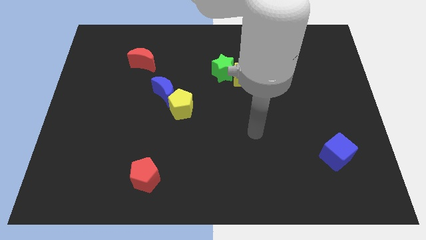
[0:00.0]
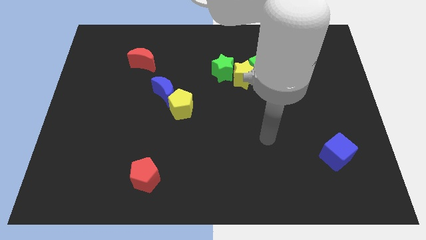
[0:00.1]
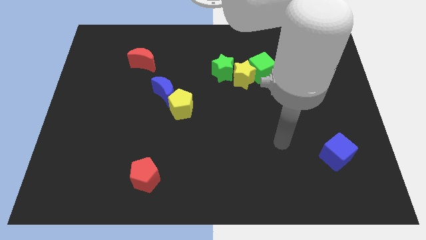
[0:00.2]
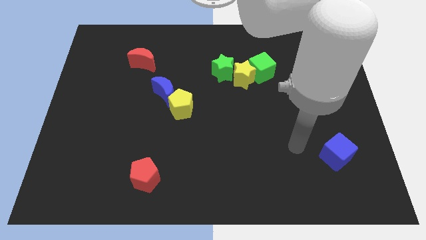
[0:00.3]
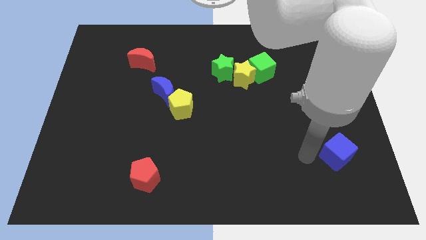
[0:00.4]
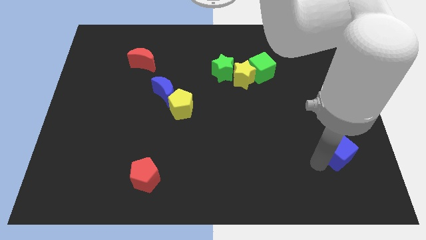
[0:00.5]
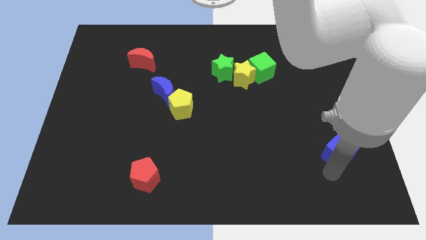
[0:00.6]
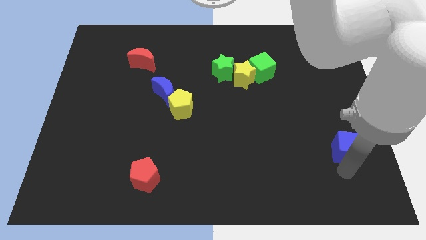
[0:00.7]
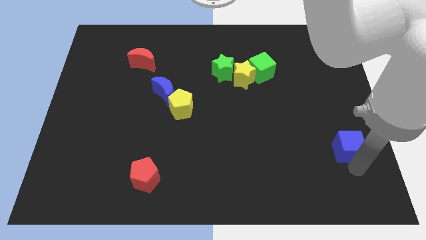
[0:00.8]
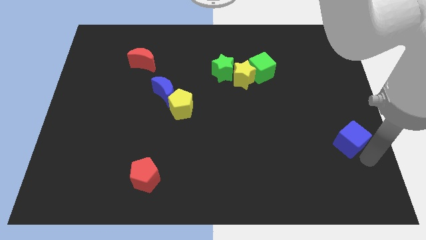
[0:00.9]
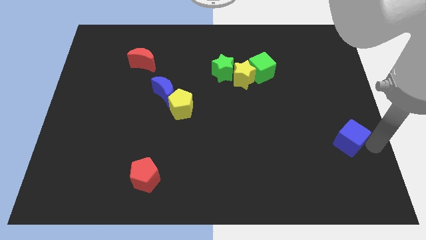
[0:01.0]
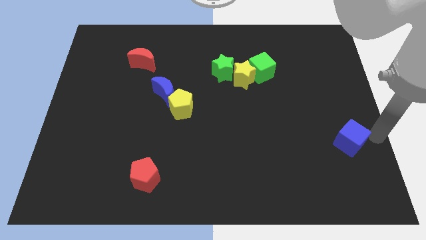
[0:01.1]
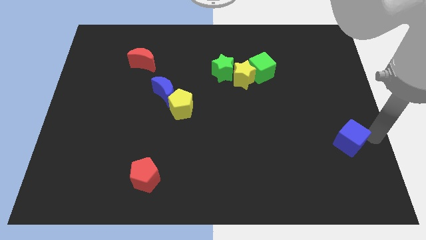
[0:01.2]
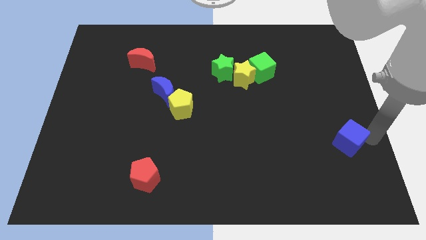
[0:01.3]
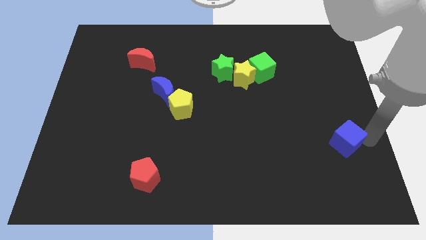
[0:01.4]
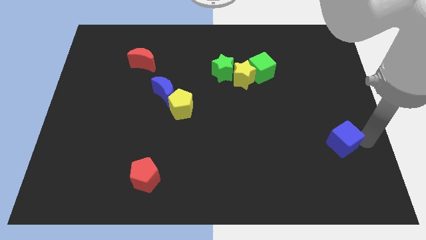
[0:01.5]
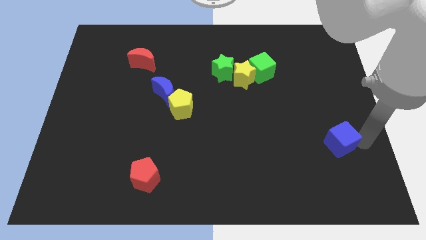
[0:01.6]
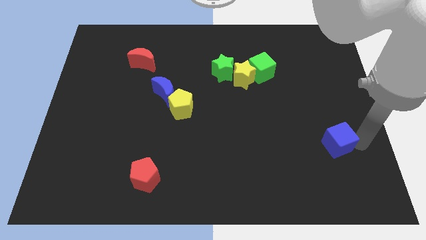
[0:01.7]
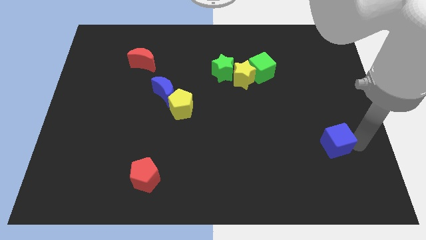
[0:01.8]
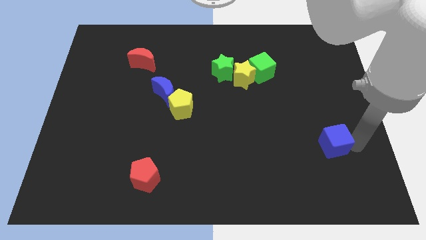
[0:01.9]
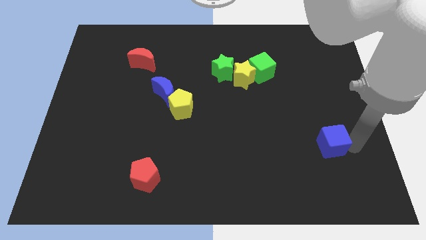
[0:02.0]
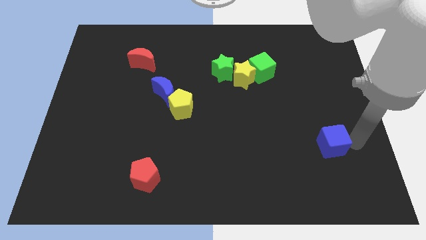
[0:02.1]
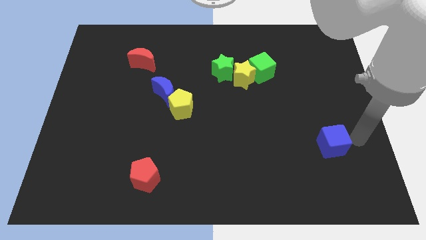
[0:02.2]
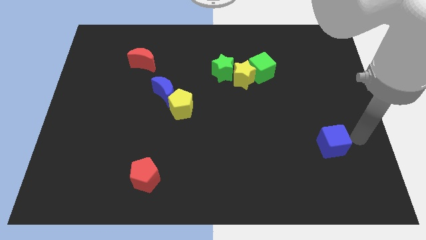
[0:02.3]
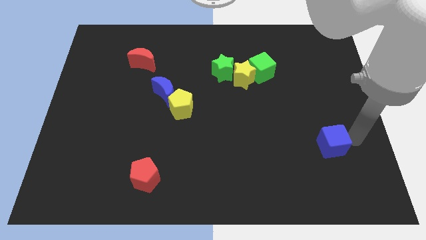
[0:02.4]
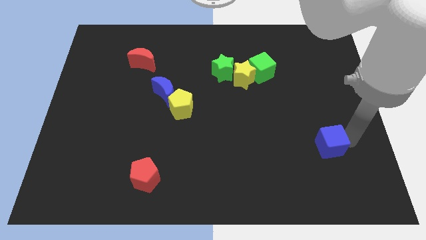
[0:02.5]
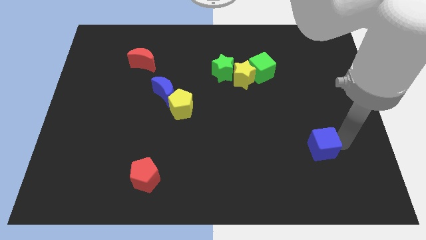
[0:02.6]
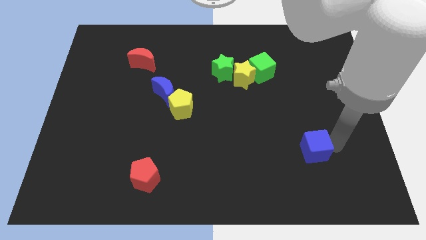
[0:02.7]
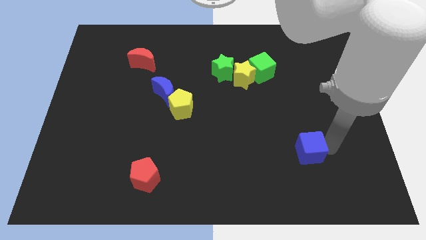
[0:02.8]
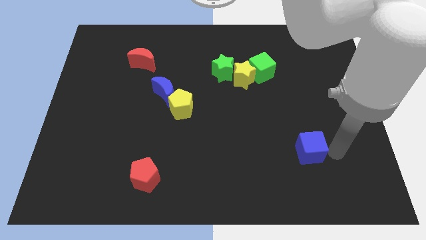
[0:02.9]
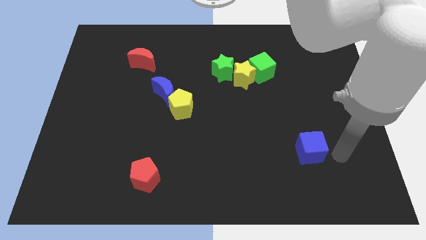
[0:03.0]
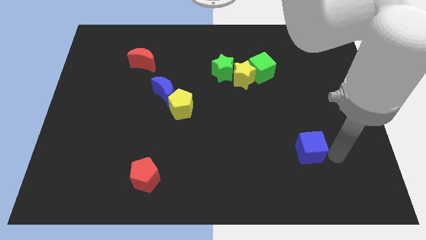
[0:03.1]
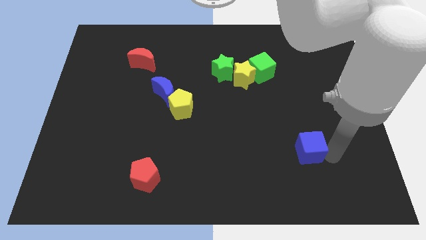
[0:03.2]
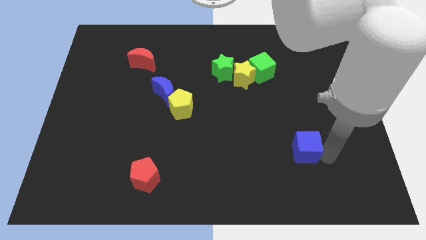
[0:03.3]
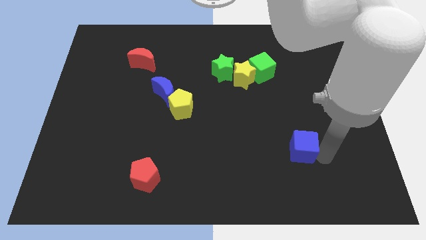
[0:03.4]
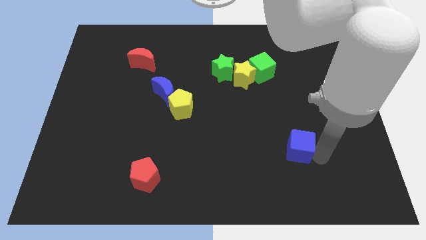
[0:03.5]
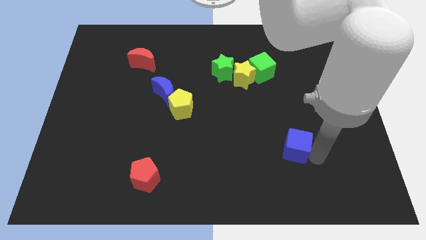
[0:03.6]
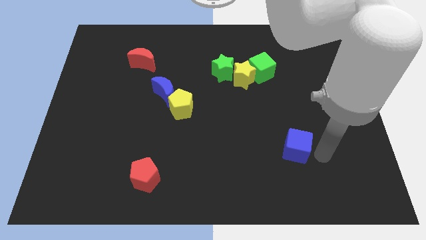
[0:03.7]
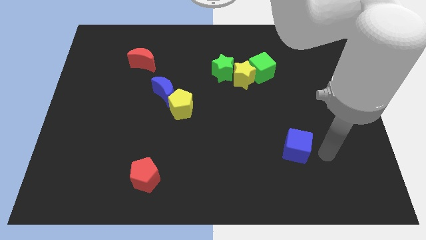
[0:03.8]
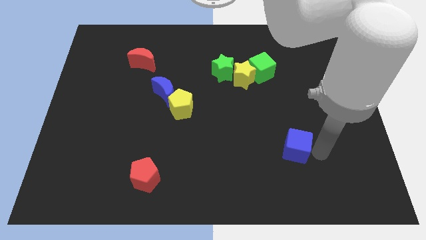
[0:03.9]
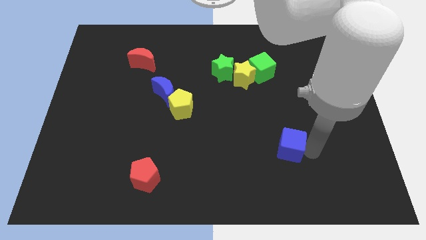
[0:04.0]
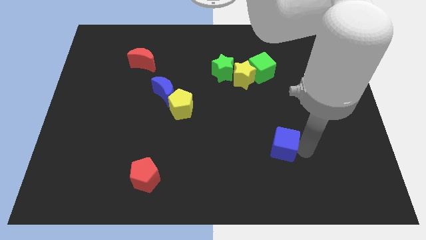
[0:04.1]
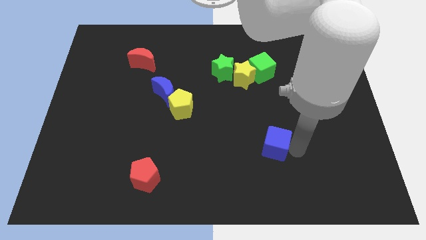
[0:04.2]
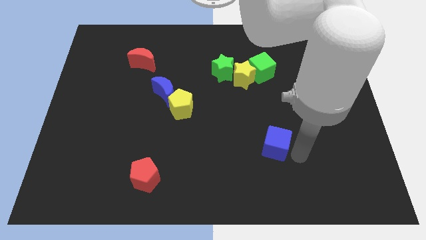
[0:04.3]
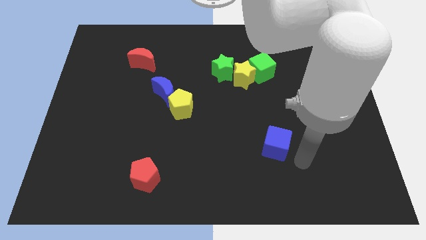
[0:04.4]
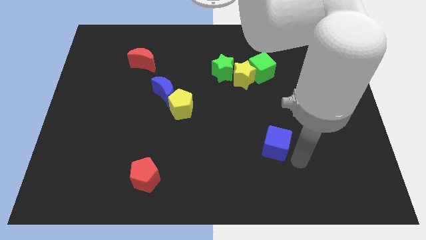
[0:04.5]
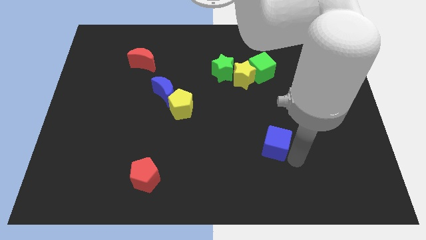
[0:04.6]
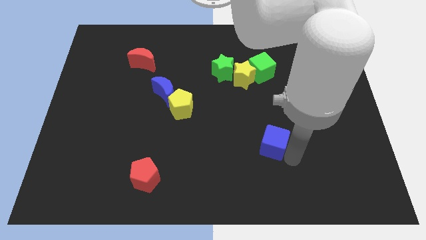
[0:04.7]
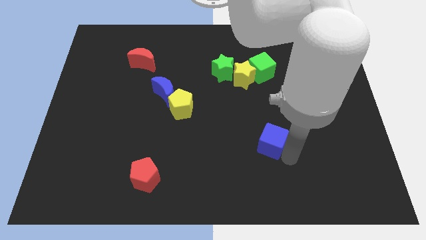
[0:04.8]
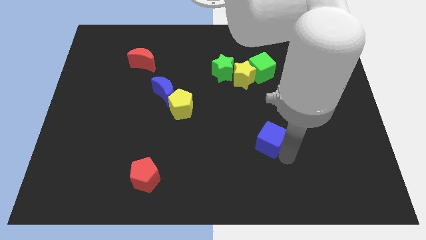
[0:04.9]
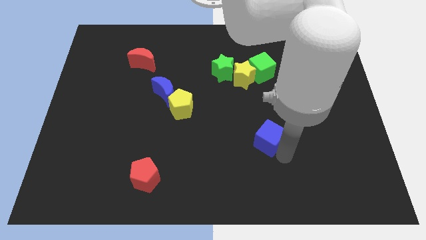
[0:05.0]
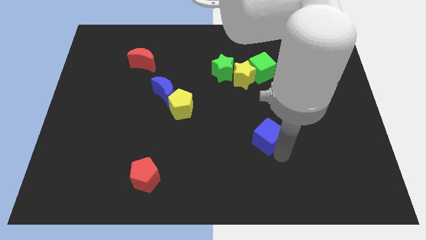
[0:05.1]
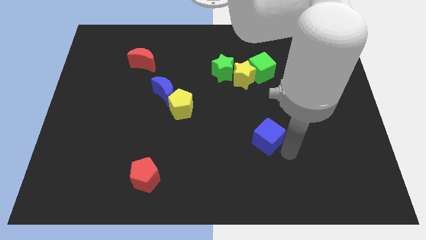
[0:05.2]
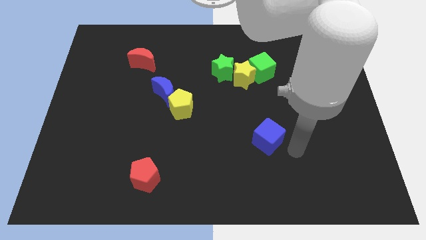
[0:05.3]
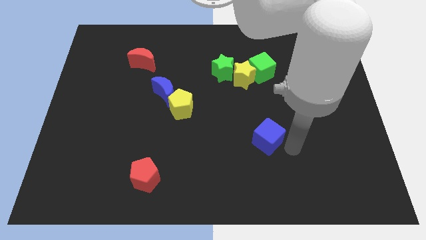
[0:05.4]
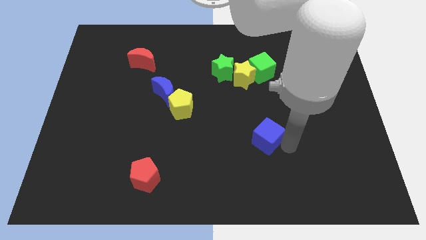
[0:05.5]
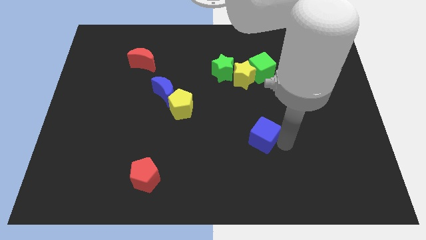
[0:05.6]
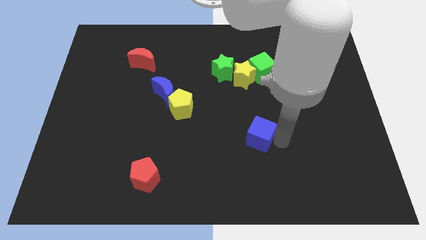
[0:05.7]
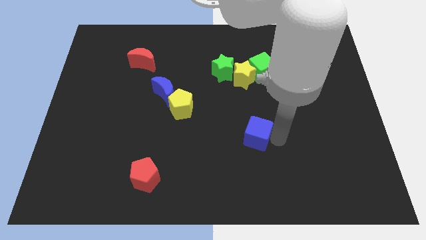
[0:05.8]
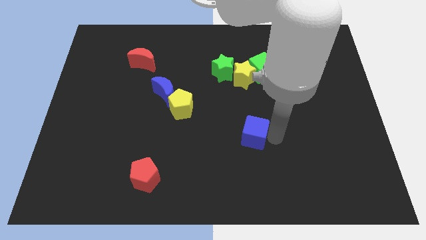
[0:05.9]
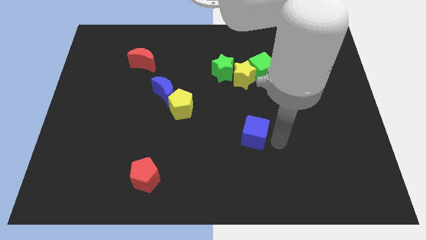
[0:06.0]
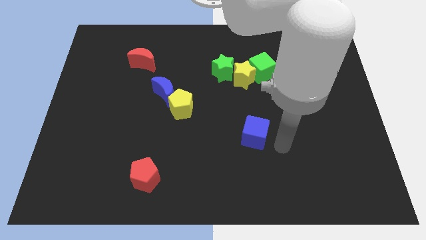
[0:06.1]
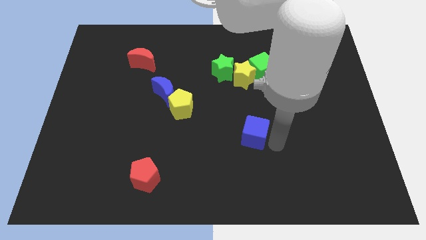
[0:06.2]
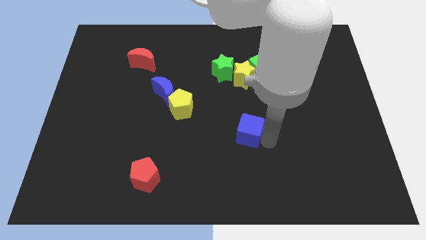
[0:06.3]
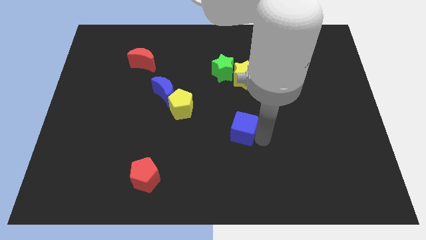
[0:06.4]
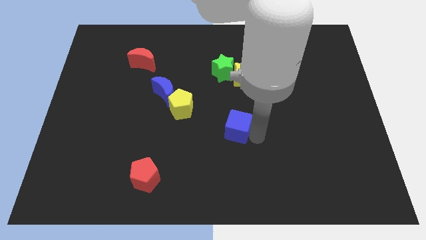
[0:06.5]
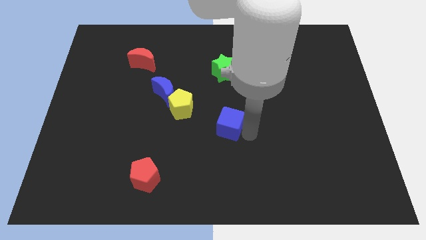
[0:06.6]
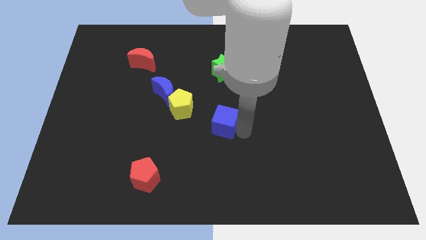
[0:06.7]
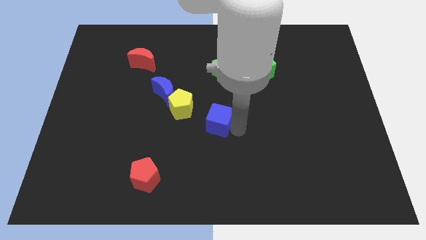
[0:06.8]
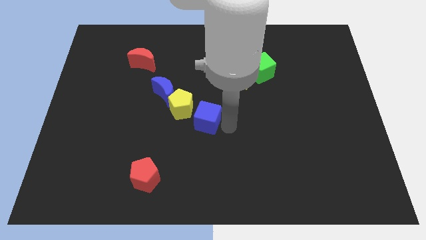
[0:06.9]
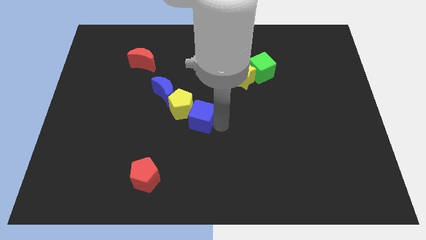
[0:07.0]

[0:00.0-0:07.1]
move the blue cube towards the yellow pentagon
